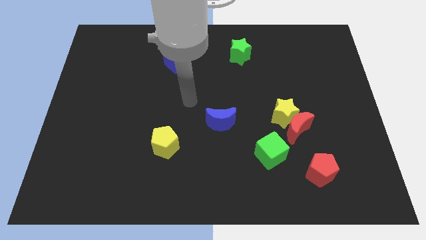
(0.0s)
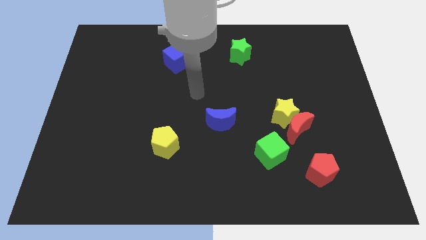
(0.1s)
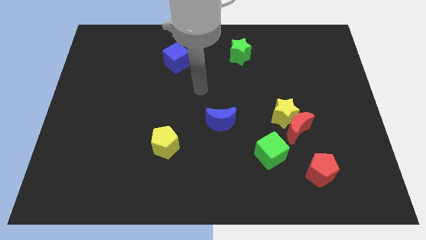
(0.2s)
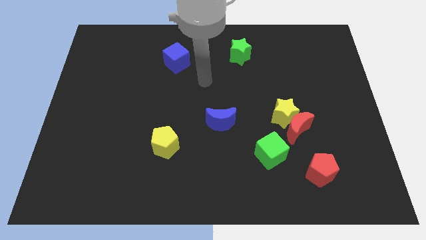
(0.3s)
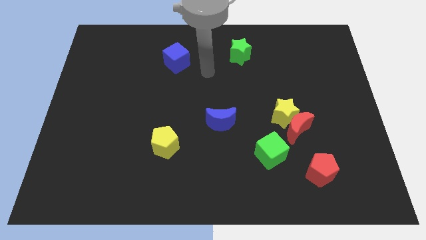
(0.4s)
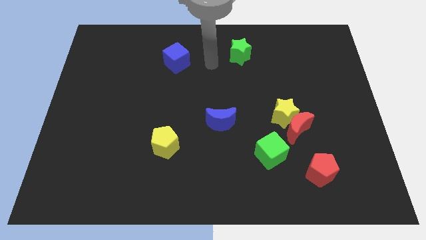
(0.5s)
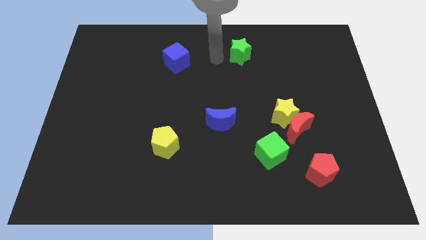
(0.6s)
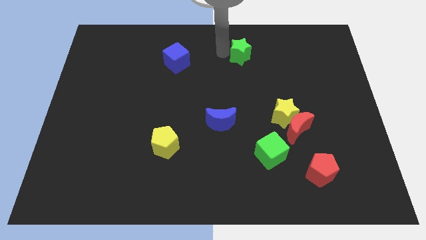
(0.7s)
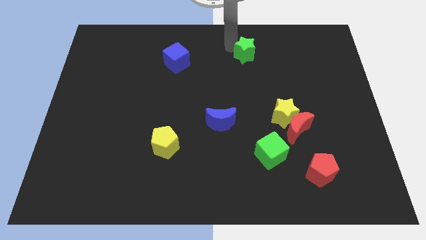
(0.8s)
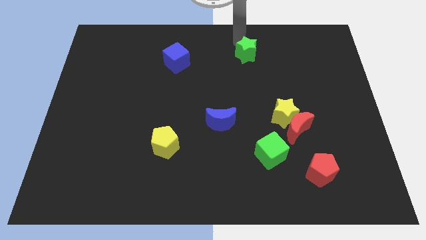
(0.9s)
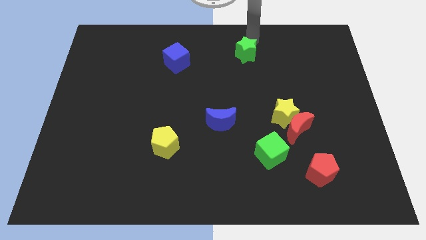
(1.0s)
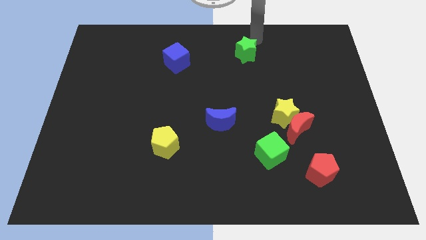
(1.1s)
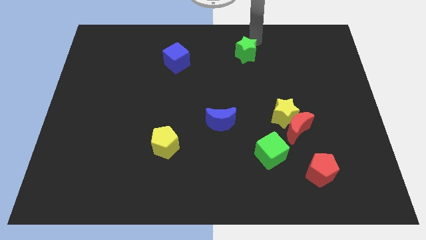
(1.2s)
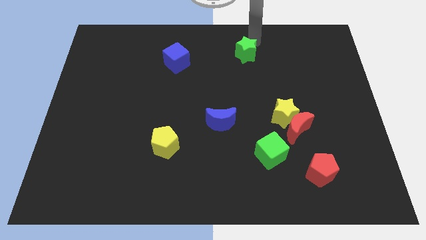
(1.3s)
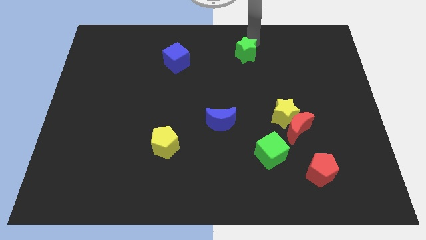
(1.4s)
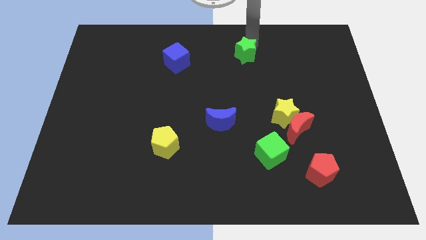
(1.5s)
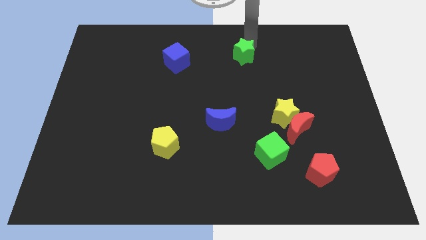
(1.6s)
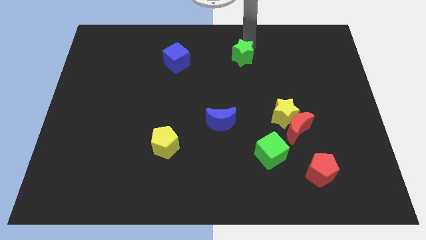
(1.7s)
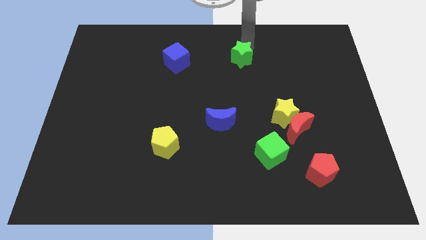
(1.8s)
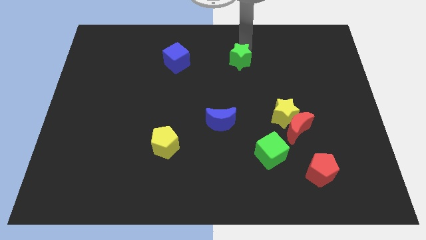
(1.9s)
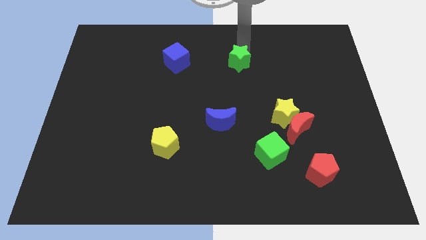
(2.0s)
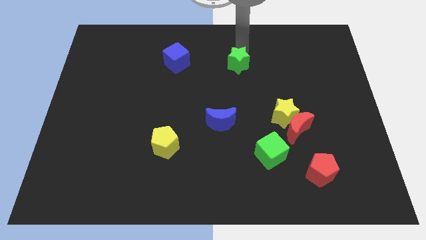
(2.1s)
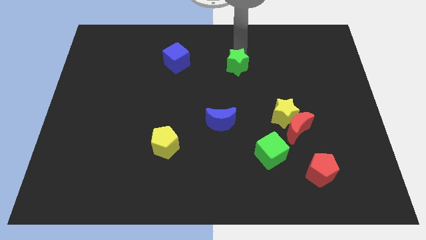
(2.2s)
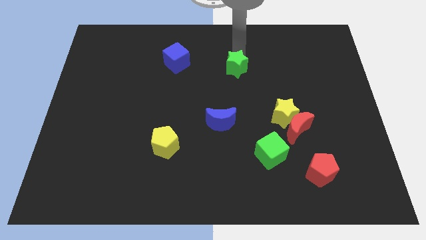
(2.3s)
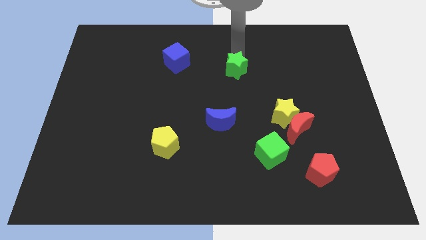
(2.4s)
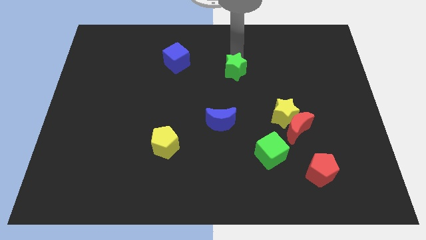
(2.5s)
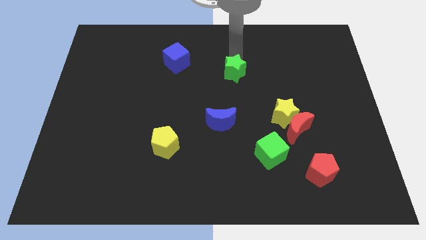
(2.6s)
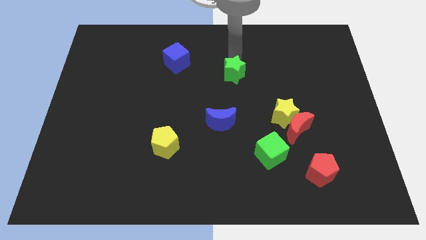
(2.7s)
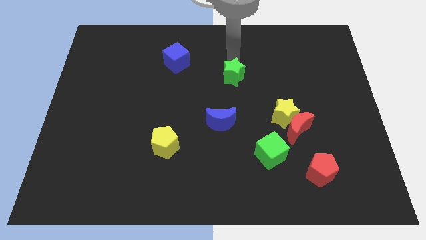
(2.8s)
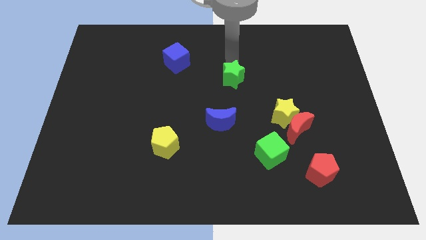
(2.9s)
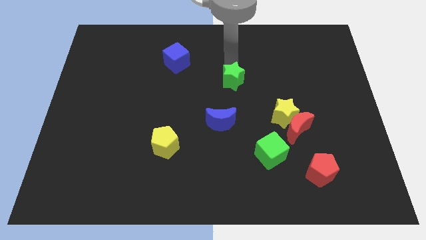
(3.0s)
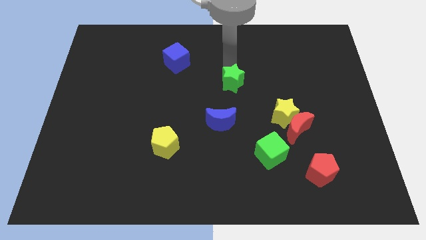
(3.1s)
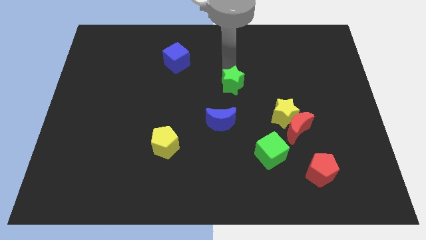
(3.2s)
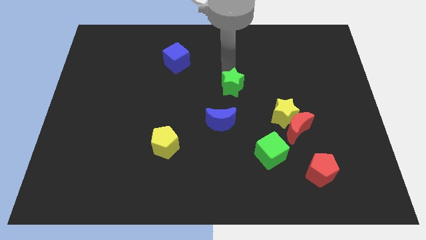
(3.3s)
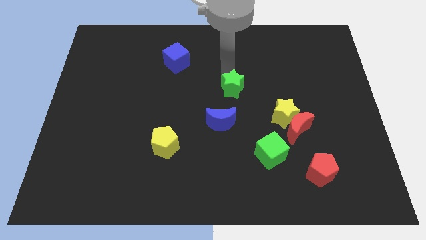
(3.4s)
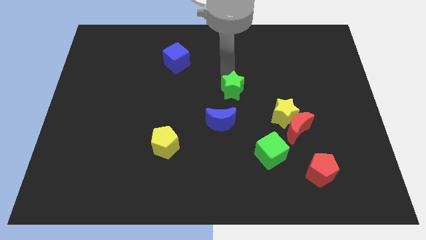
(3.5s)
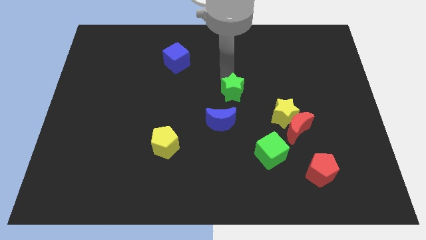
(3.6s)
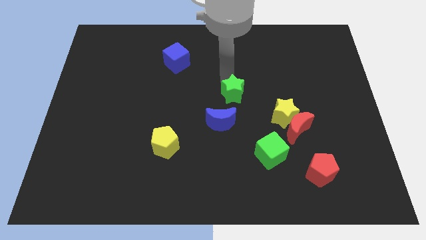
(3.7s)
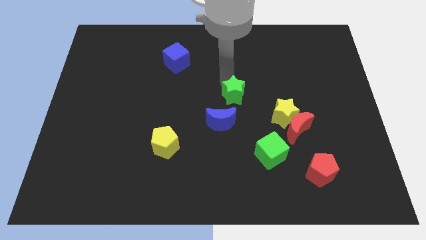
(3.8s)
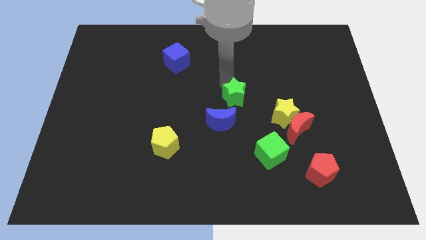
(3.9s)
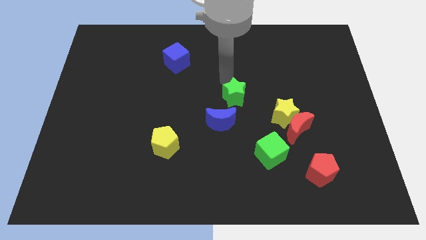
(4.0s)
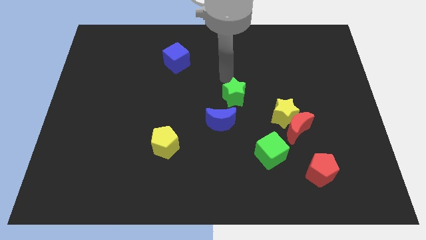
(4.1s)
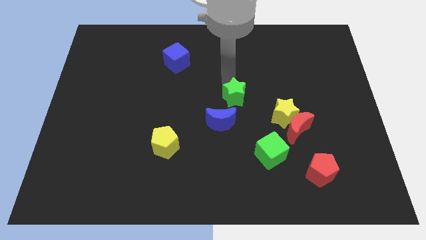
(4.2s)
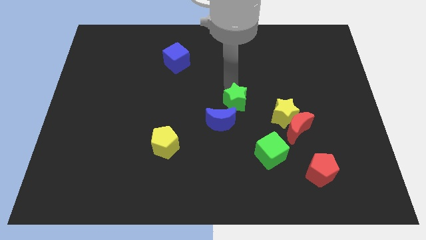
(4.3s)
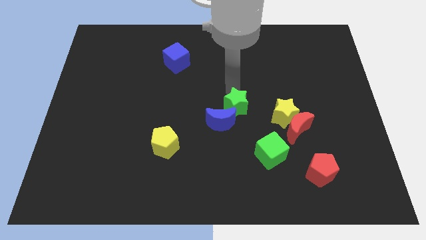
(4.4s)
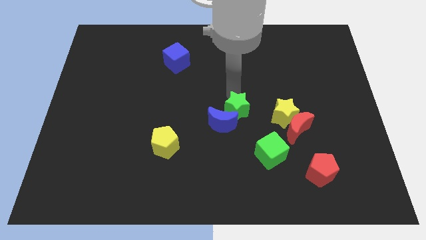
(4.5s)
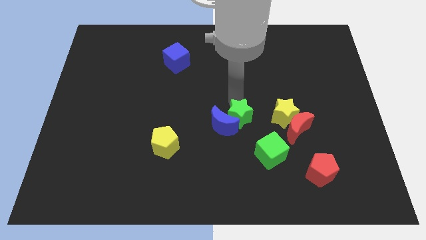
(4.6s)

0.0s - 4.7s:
move the green star downwards

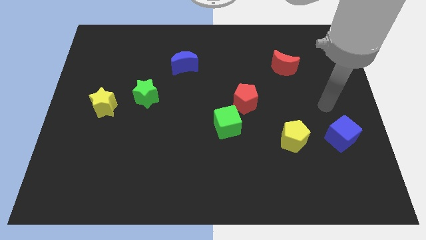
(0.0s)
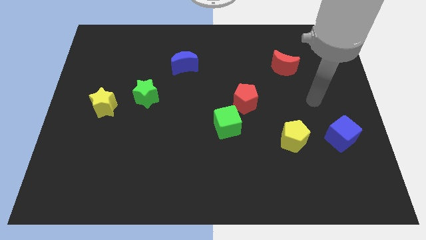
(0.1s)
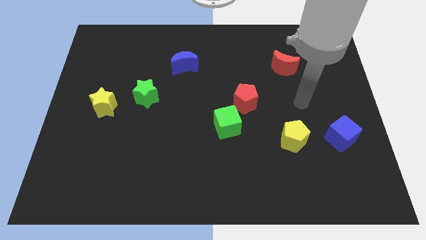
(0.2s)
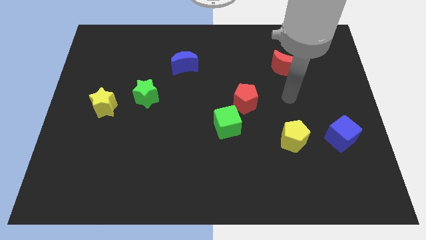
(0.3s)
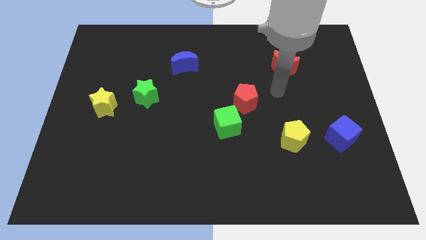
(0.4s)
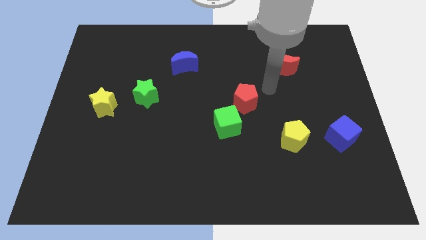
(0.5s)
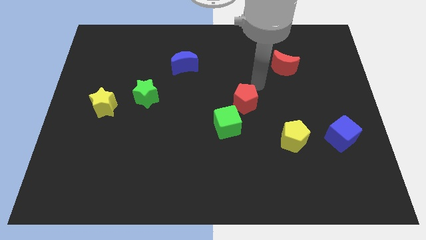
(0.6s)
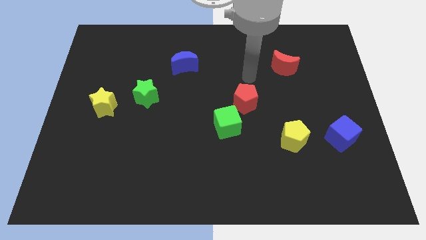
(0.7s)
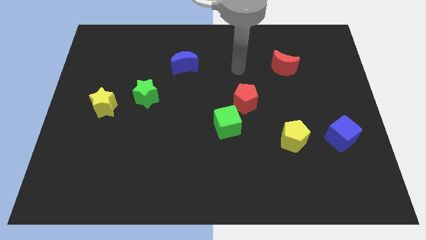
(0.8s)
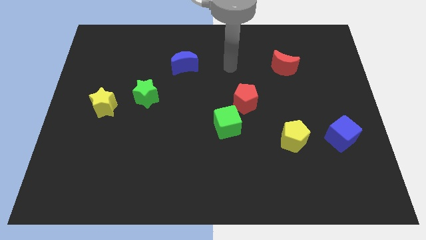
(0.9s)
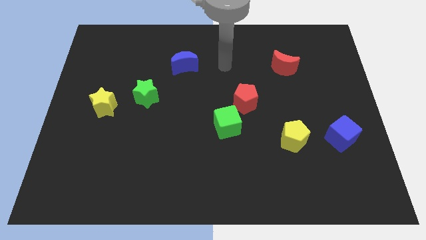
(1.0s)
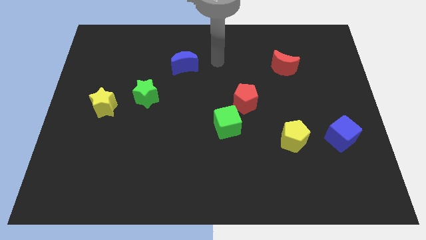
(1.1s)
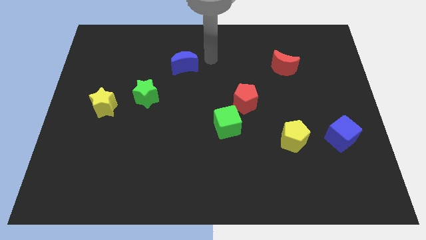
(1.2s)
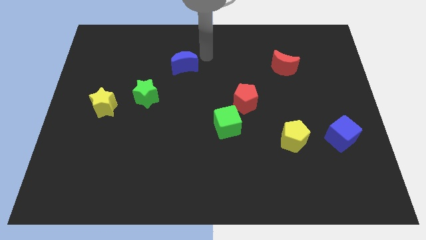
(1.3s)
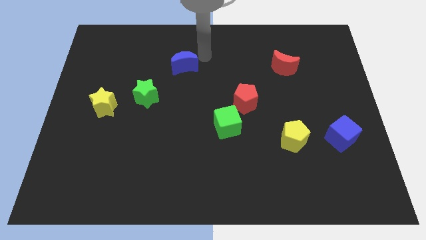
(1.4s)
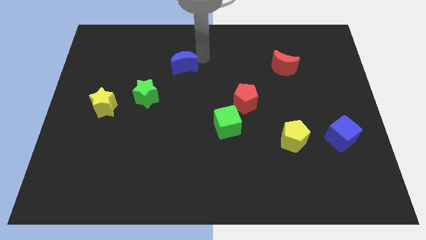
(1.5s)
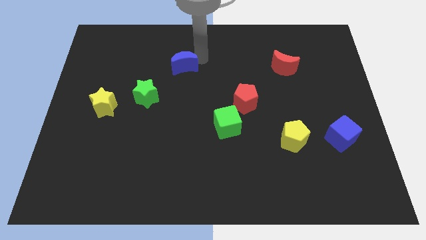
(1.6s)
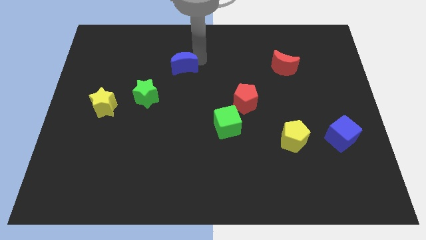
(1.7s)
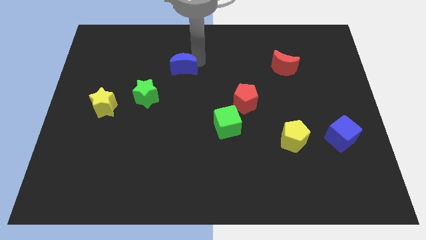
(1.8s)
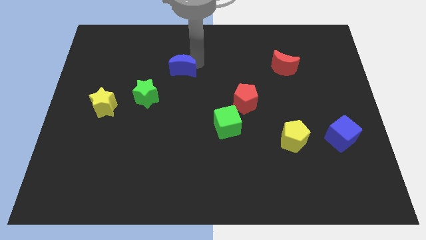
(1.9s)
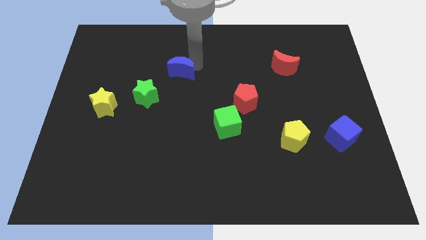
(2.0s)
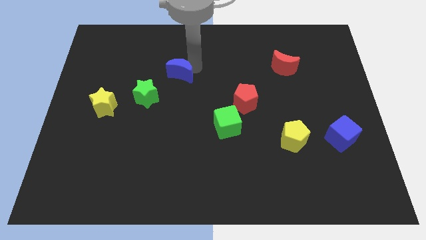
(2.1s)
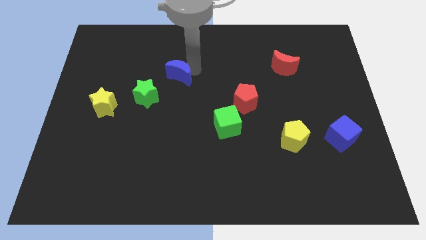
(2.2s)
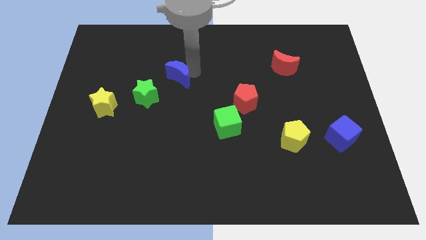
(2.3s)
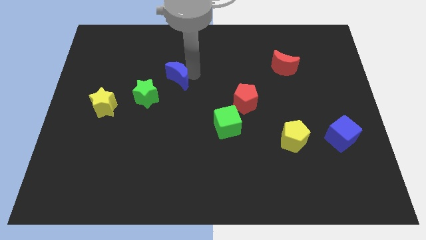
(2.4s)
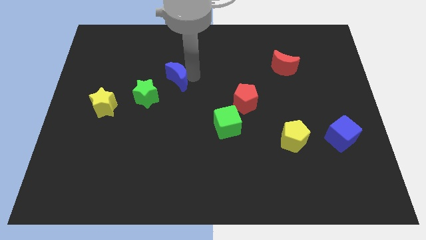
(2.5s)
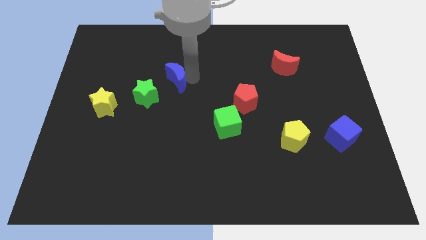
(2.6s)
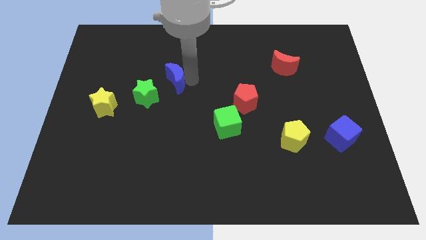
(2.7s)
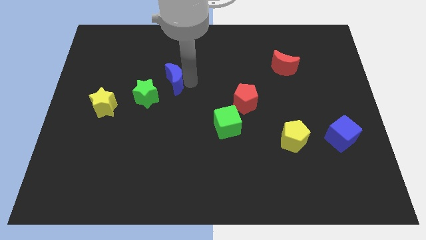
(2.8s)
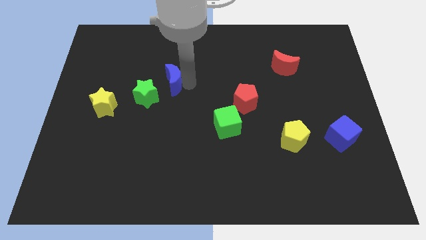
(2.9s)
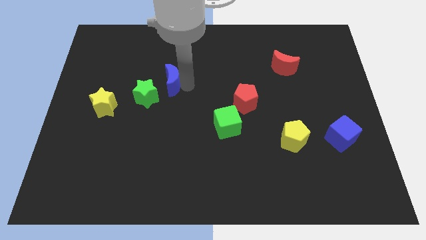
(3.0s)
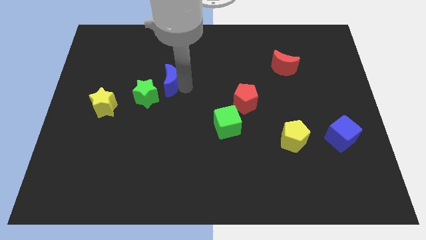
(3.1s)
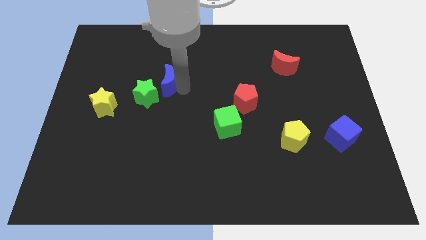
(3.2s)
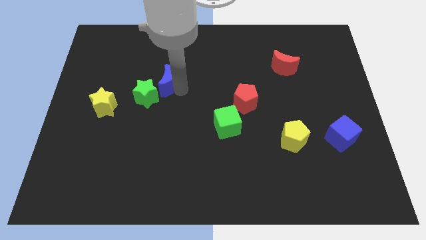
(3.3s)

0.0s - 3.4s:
slightly slide the blue moon downwards and to the left diagonally
